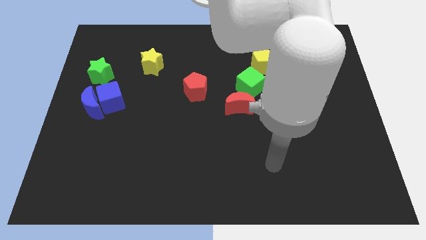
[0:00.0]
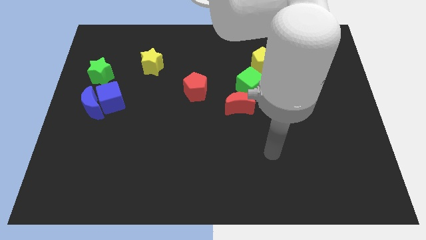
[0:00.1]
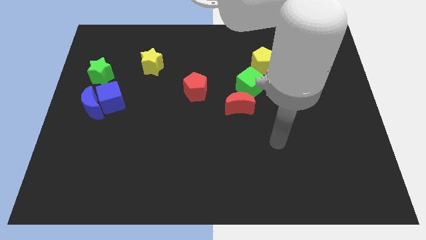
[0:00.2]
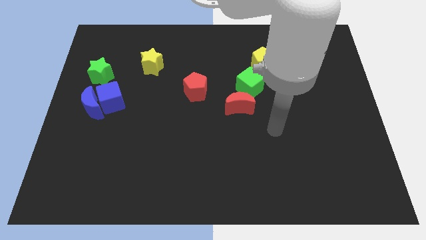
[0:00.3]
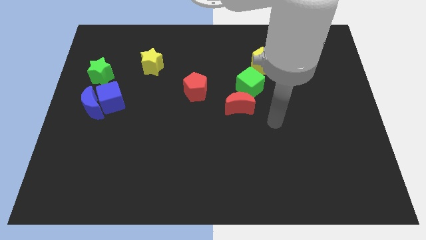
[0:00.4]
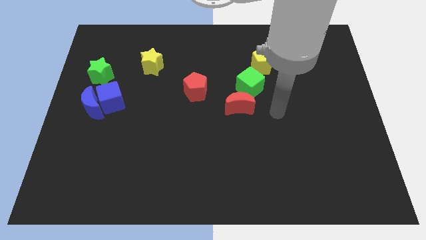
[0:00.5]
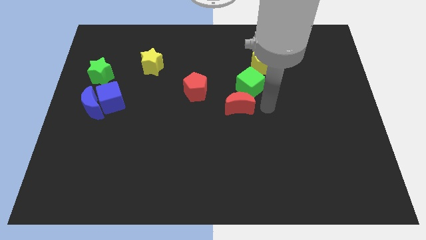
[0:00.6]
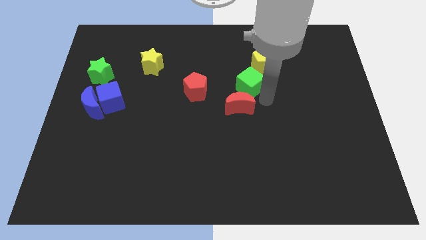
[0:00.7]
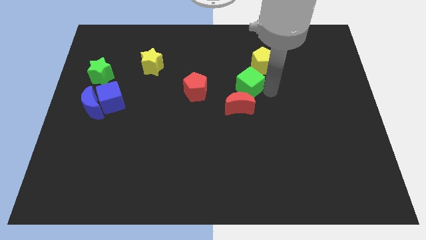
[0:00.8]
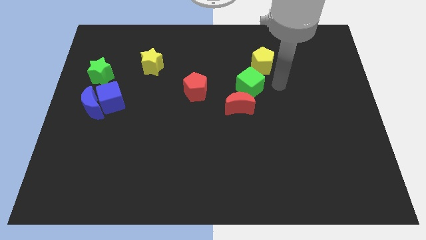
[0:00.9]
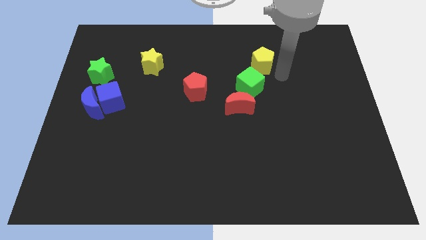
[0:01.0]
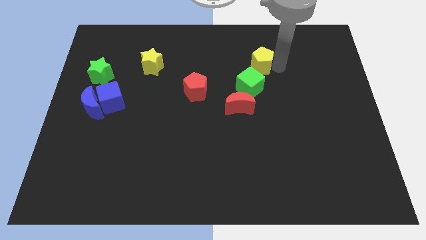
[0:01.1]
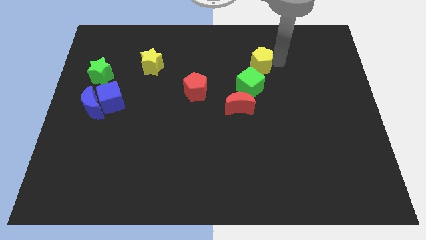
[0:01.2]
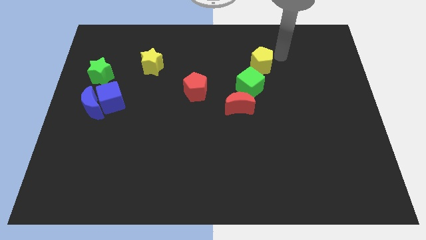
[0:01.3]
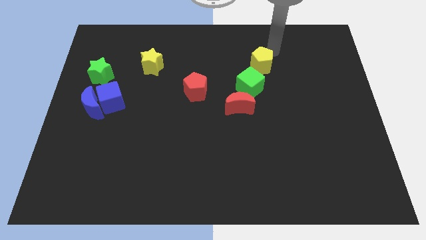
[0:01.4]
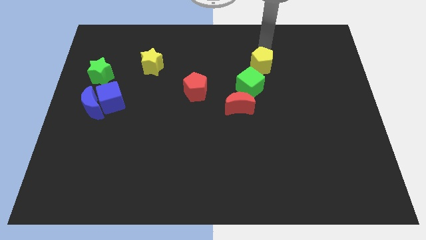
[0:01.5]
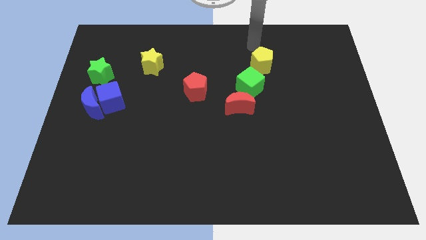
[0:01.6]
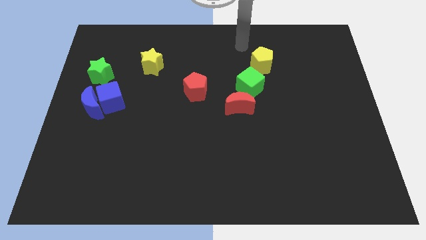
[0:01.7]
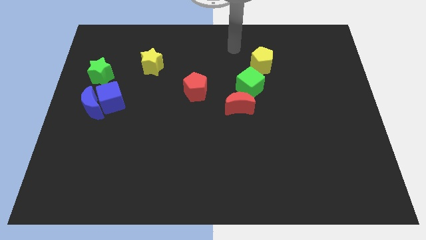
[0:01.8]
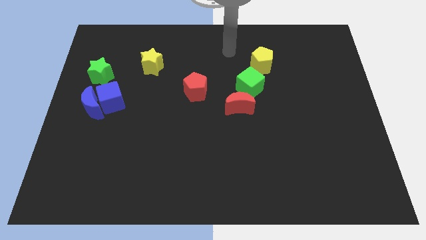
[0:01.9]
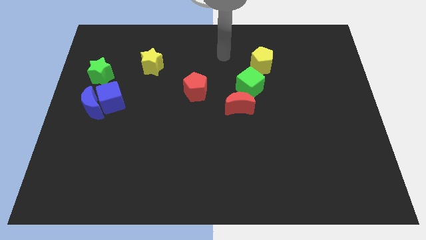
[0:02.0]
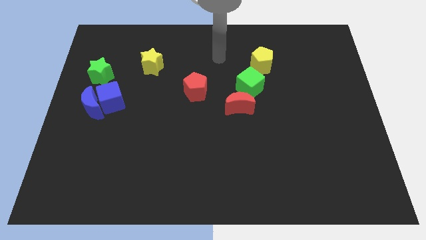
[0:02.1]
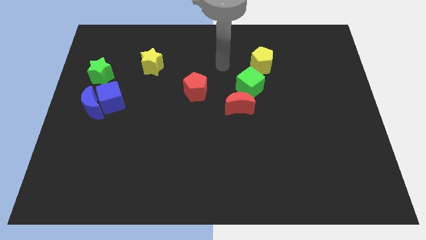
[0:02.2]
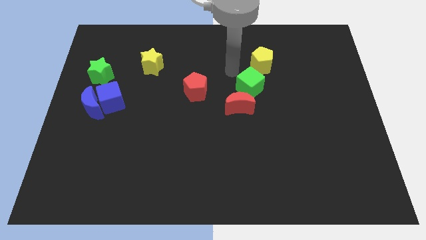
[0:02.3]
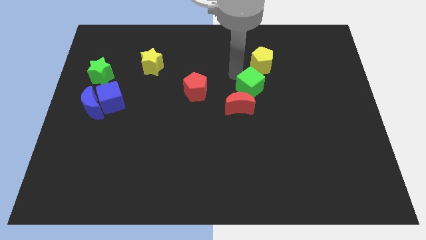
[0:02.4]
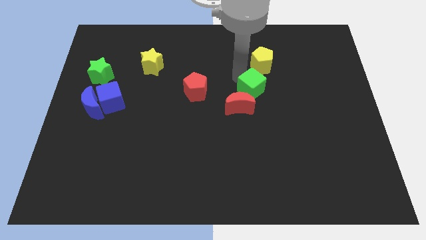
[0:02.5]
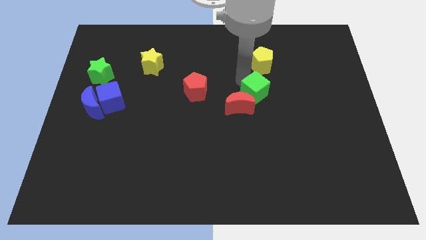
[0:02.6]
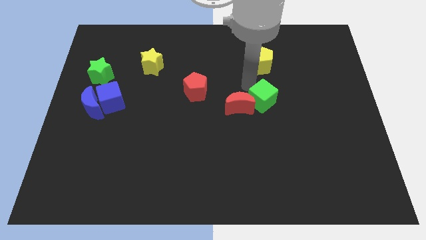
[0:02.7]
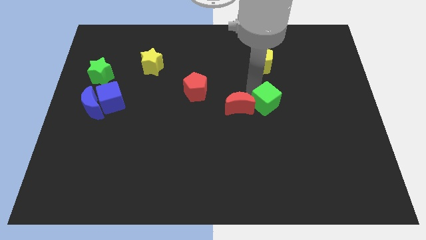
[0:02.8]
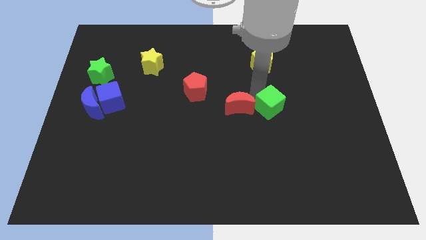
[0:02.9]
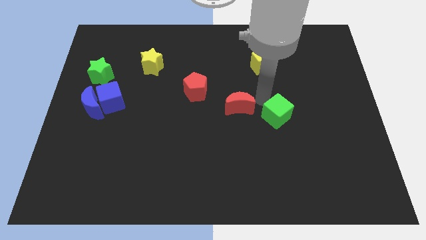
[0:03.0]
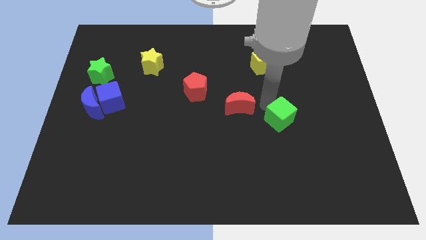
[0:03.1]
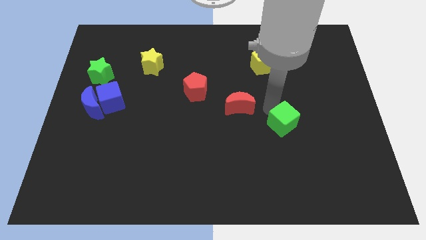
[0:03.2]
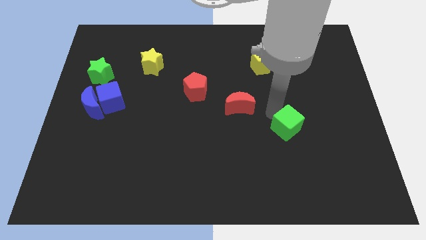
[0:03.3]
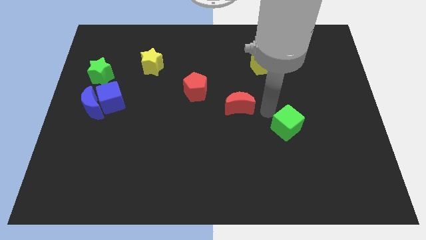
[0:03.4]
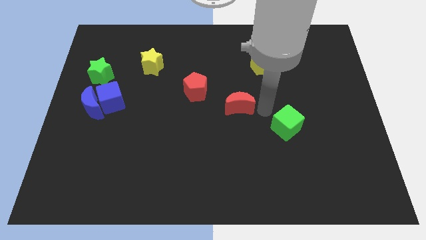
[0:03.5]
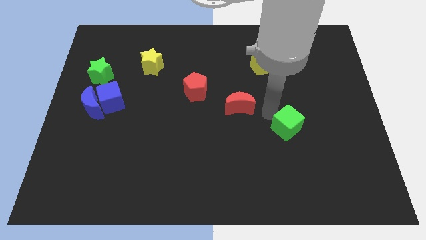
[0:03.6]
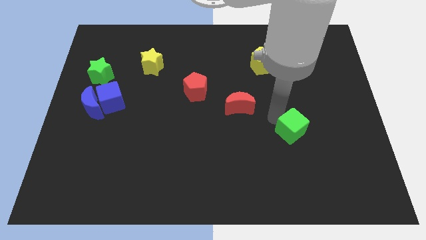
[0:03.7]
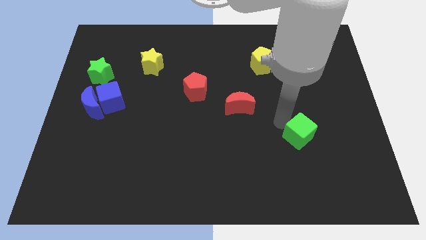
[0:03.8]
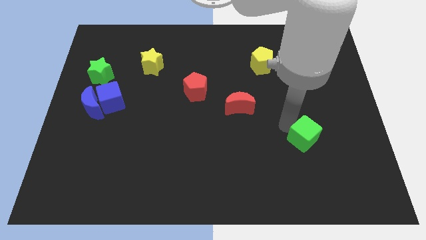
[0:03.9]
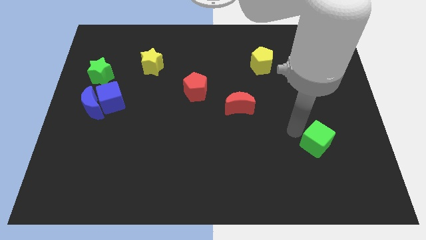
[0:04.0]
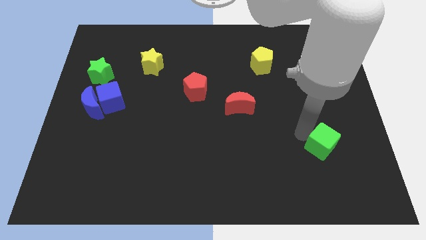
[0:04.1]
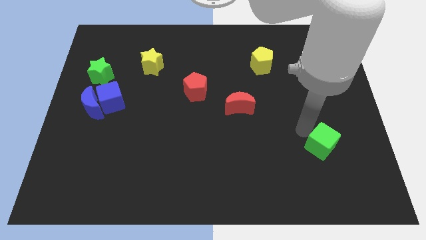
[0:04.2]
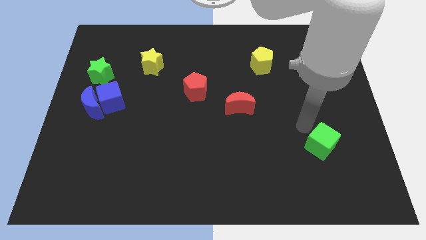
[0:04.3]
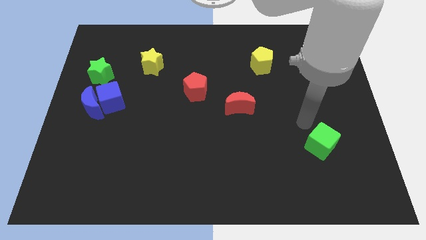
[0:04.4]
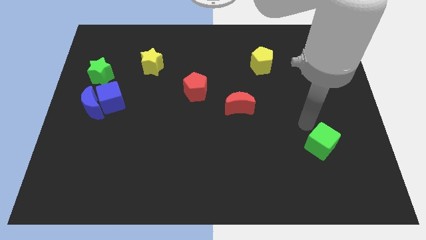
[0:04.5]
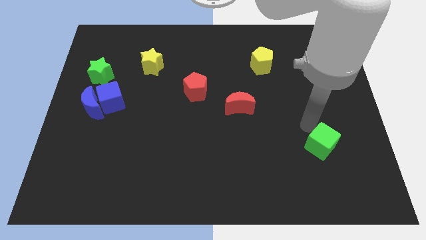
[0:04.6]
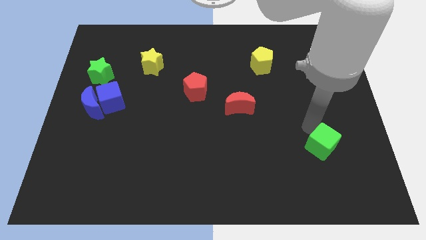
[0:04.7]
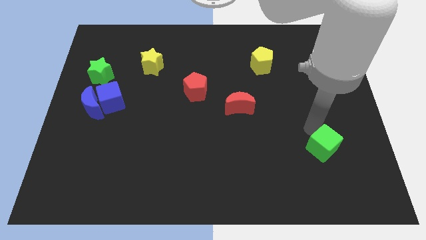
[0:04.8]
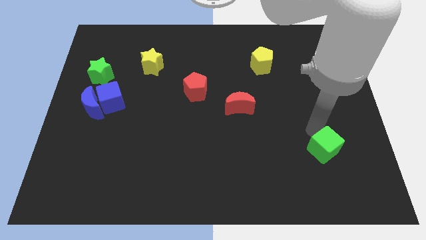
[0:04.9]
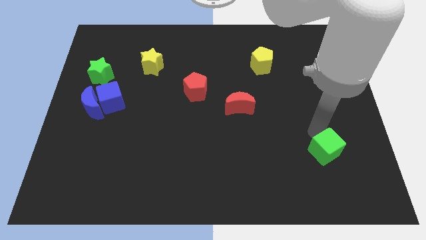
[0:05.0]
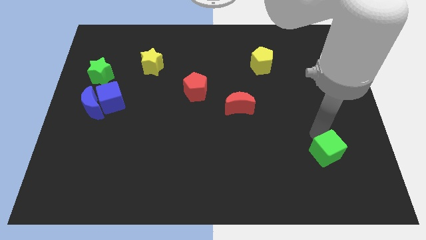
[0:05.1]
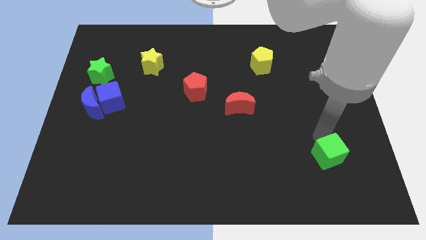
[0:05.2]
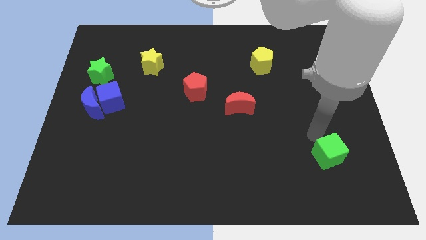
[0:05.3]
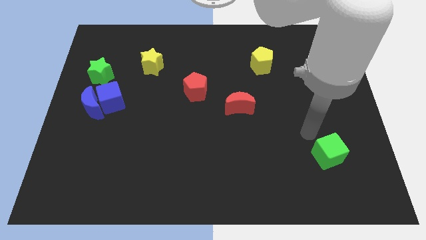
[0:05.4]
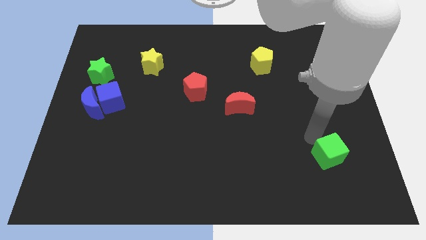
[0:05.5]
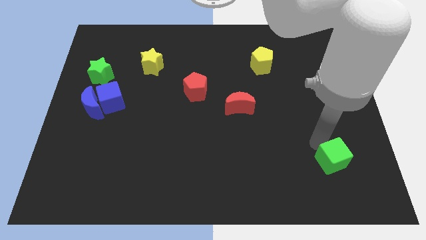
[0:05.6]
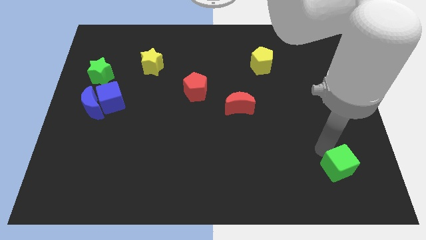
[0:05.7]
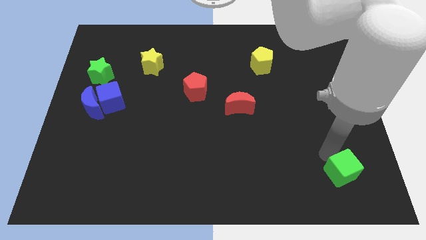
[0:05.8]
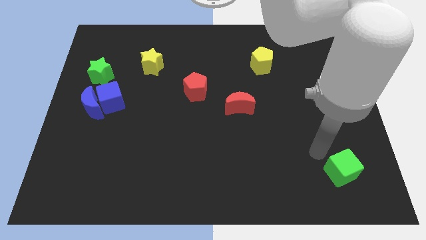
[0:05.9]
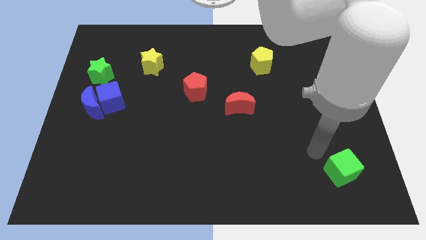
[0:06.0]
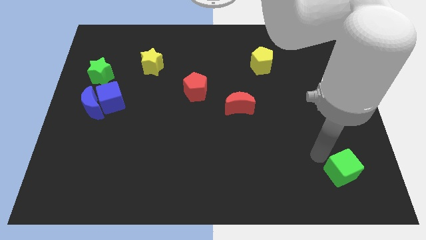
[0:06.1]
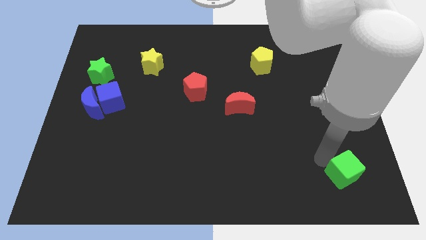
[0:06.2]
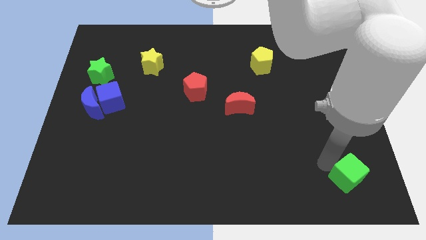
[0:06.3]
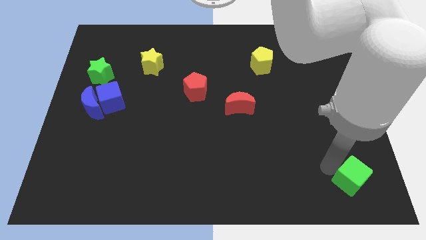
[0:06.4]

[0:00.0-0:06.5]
slide the green cube to the lower right corner
